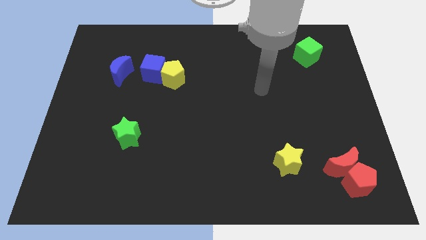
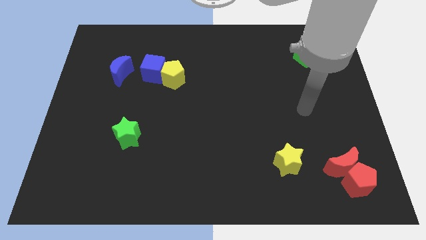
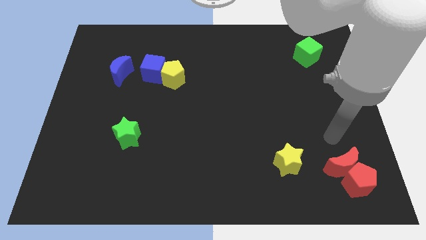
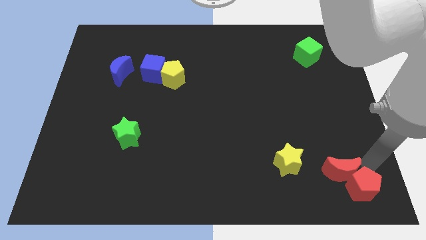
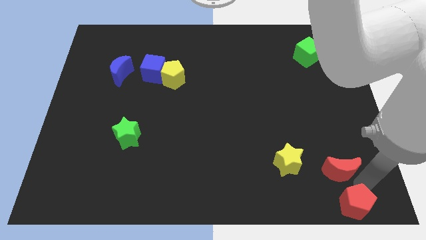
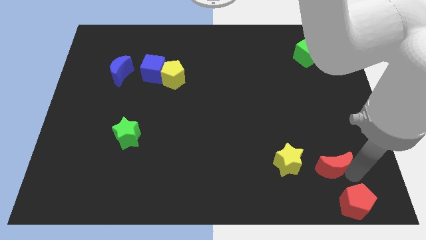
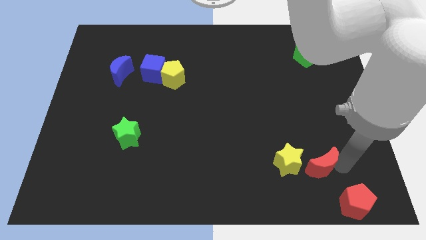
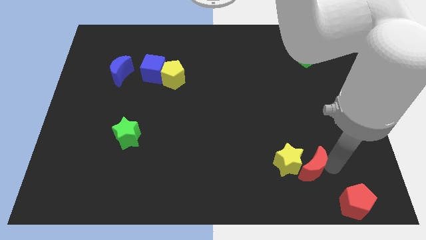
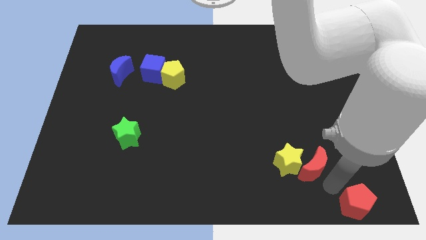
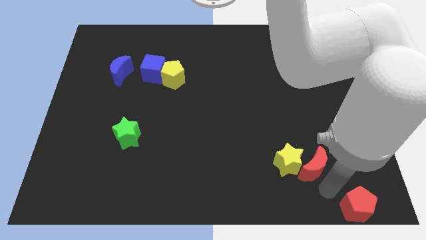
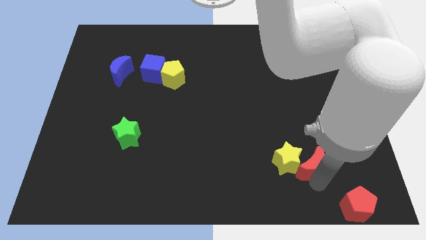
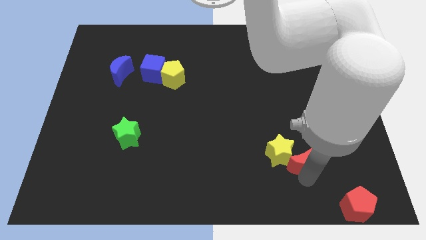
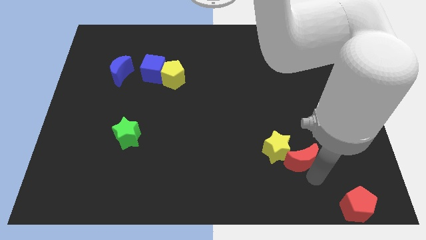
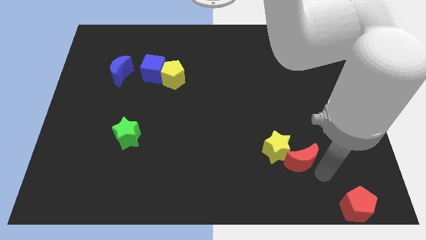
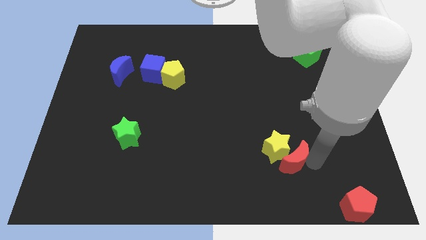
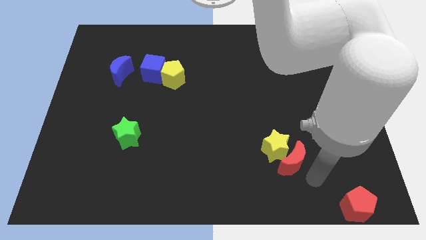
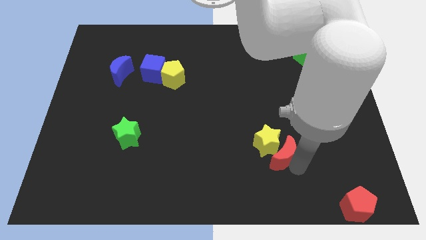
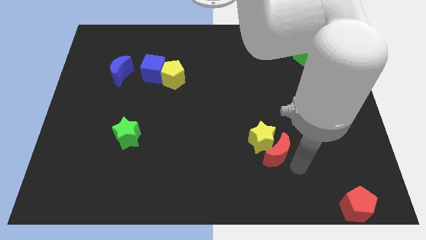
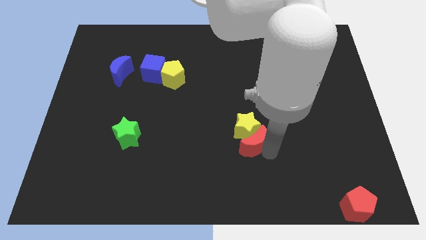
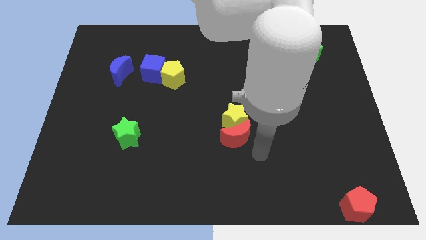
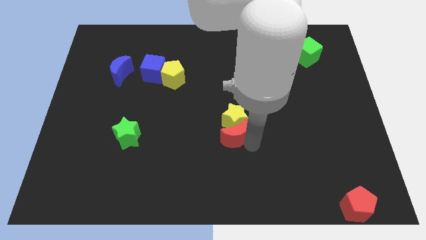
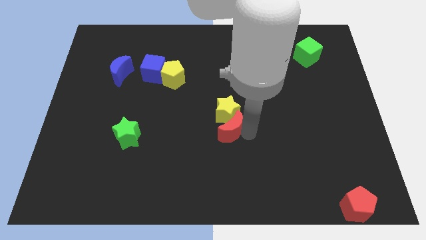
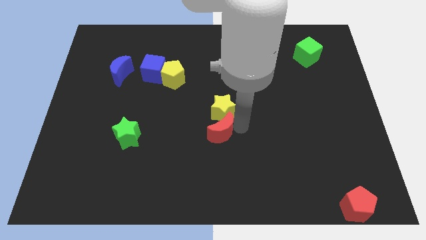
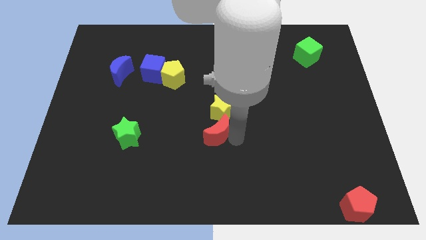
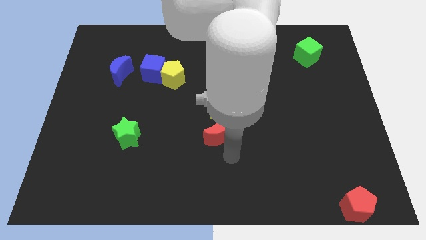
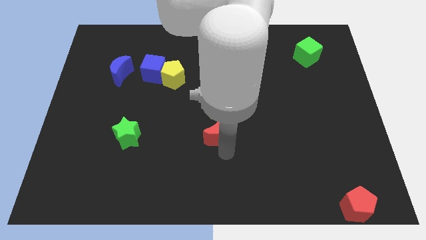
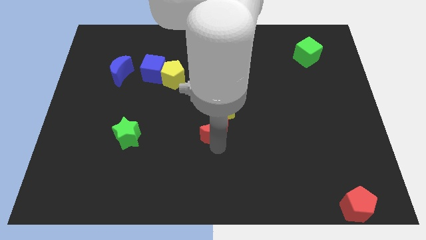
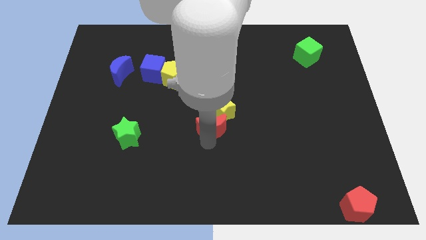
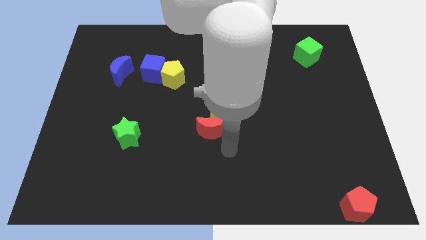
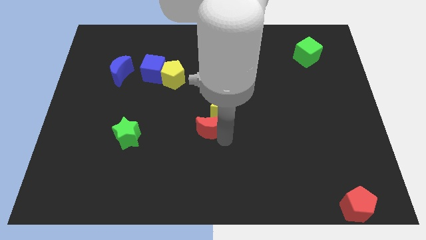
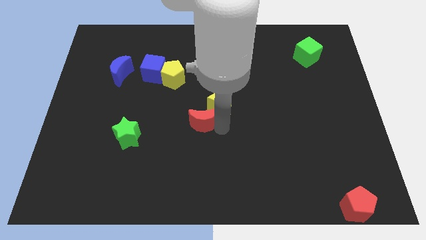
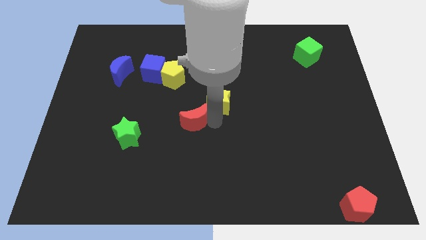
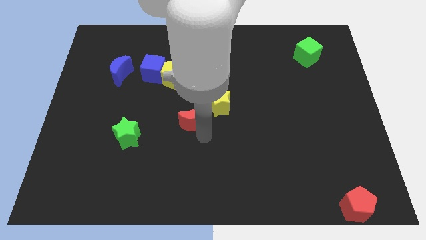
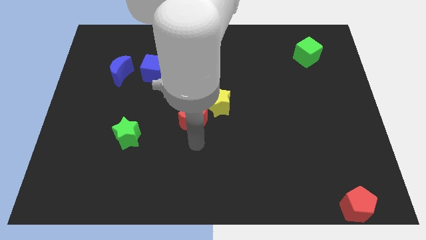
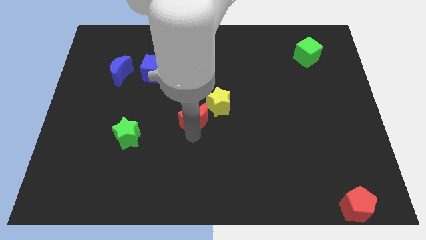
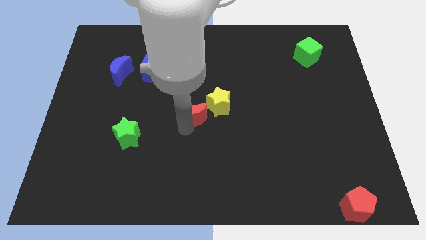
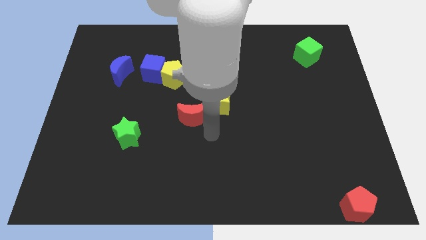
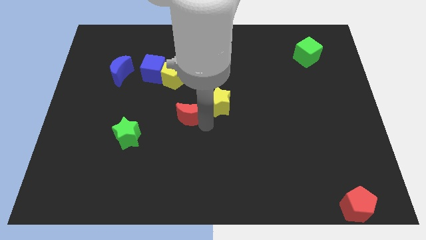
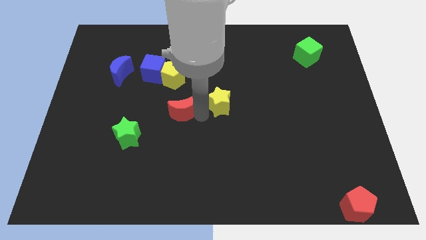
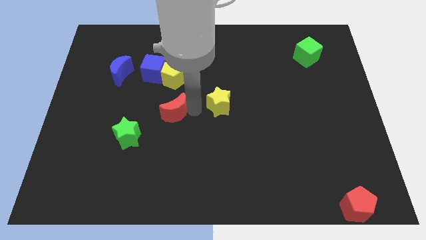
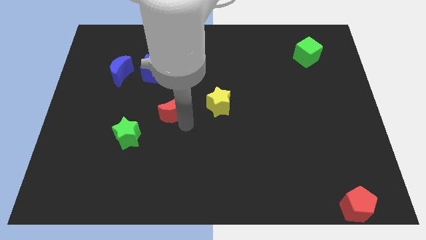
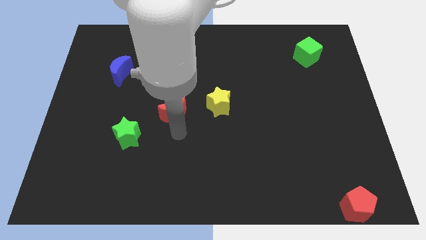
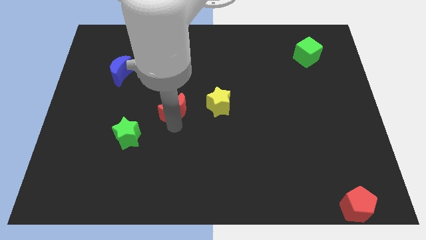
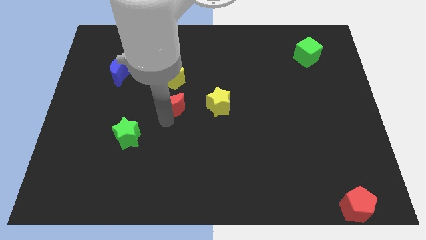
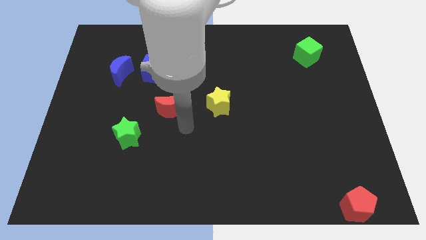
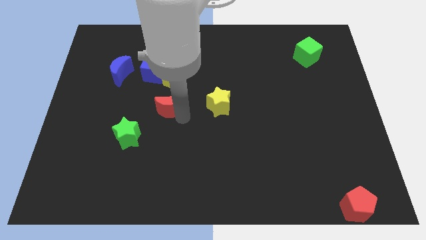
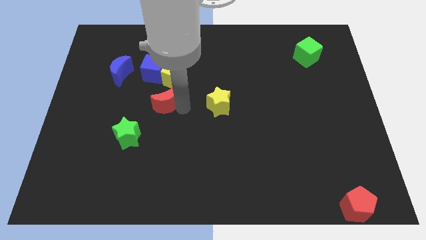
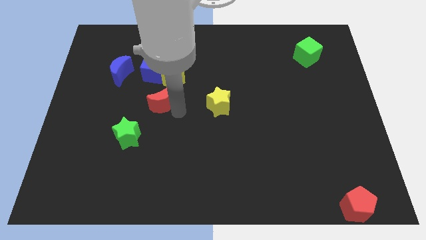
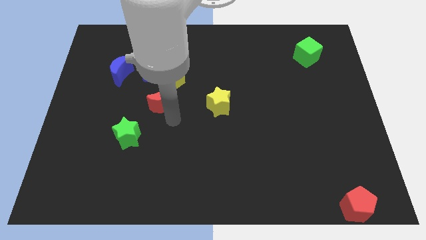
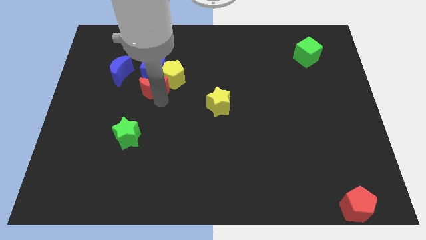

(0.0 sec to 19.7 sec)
move the red moon close to the blue cube

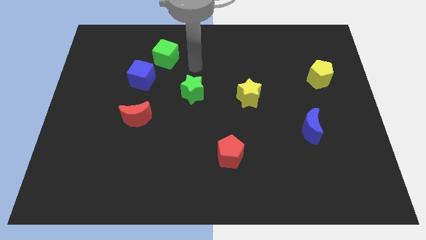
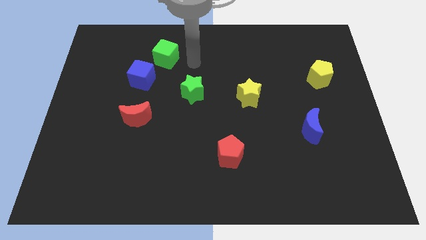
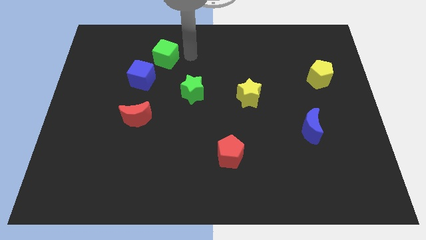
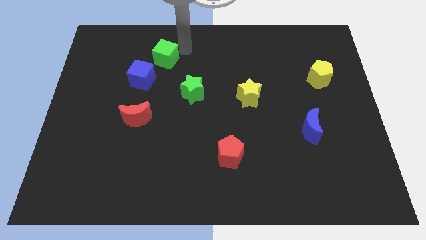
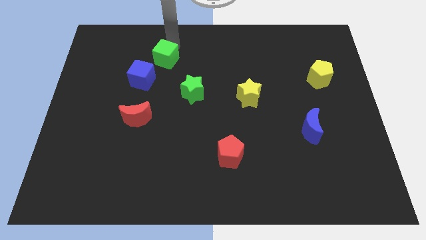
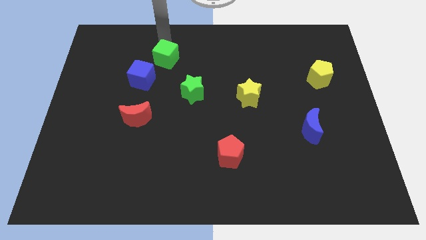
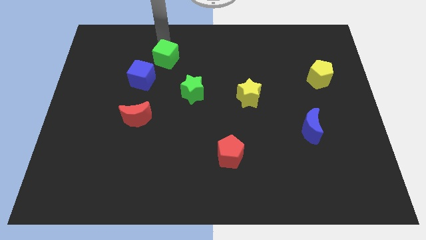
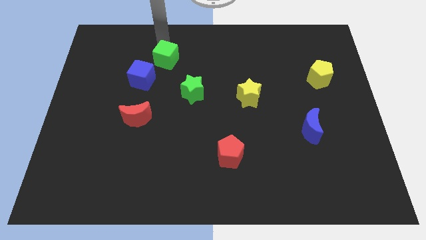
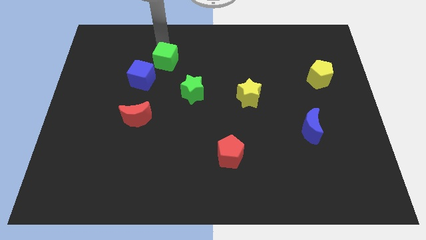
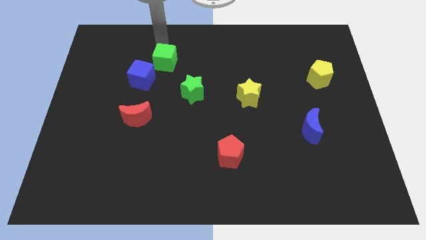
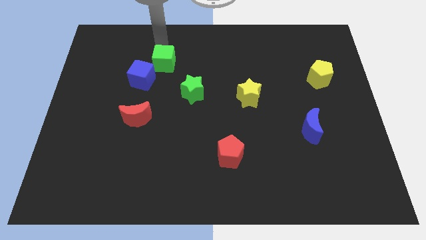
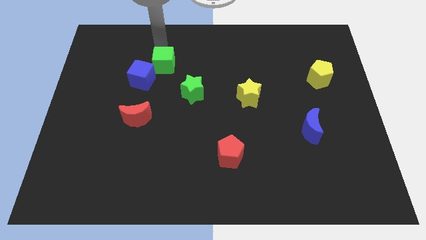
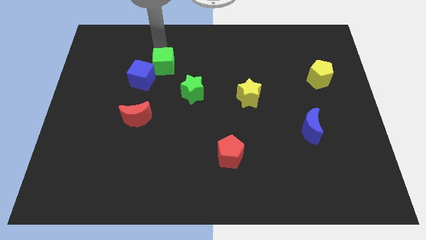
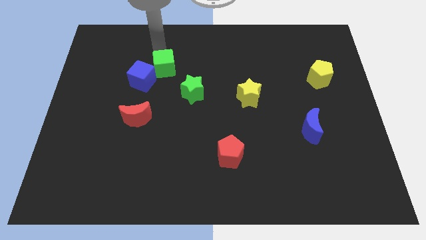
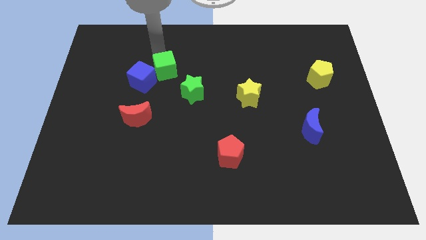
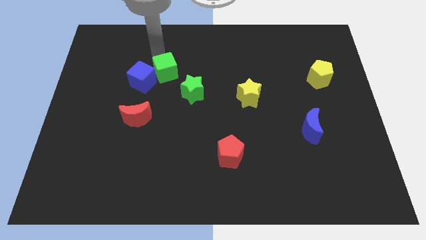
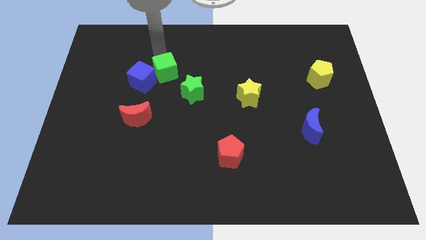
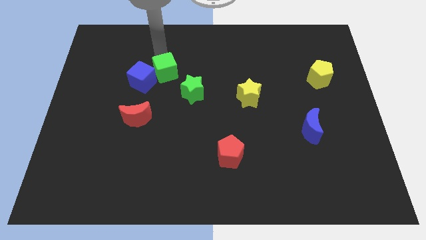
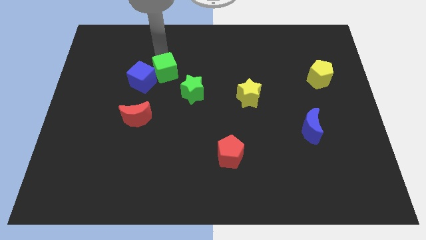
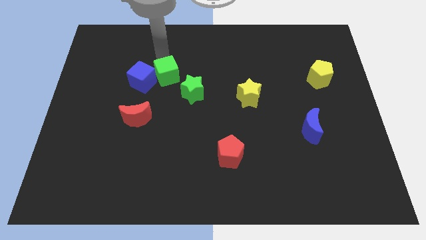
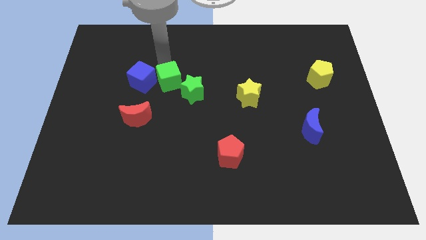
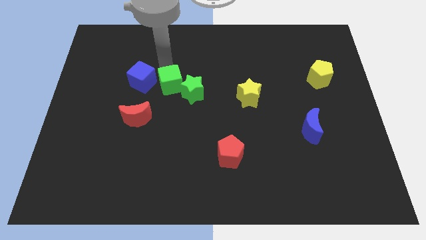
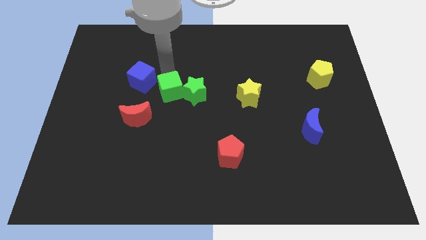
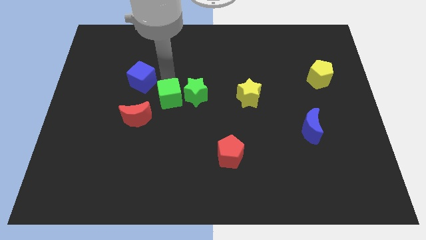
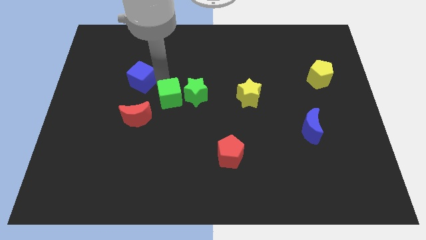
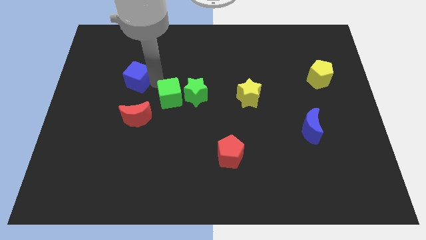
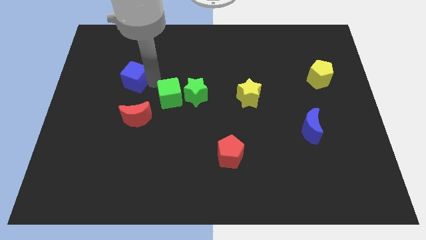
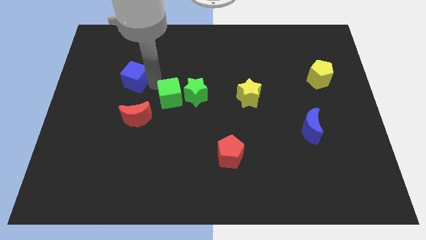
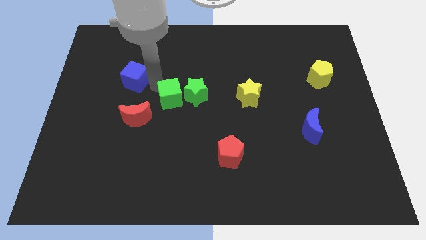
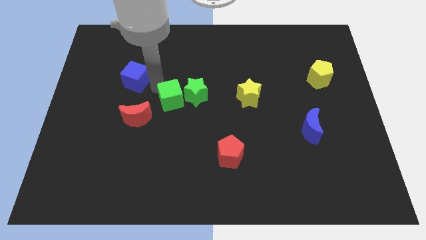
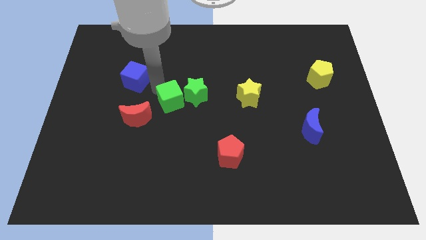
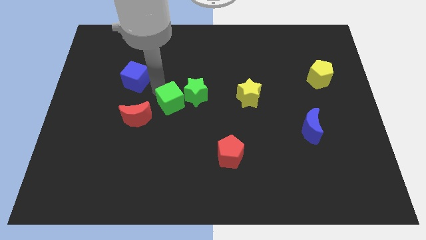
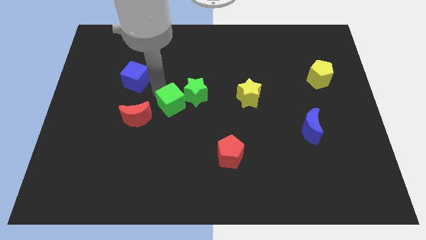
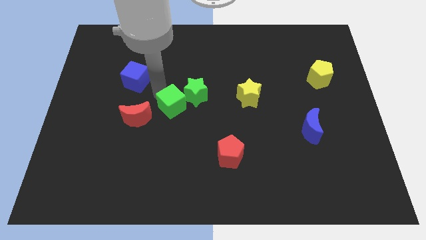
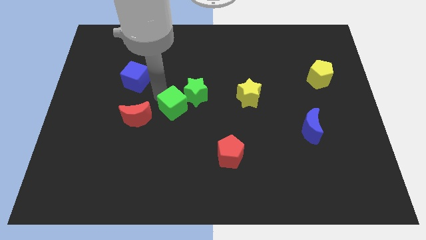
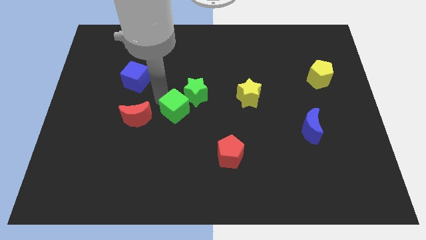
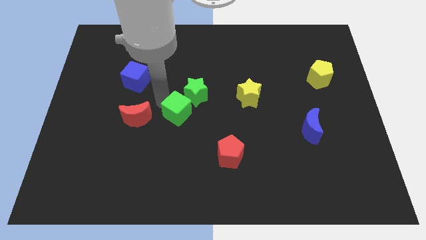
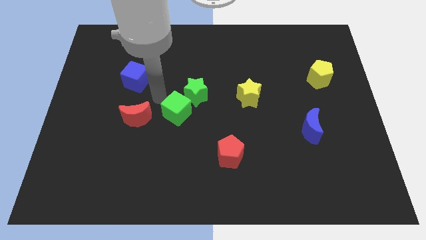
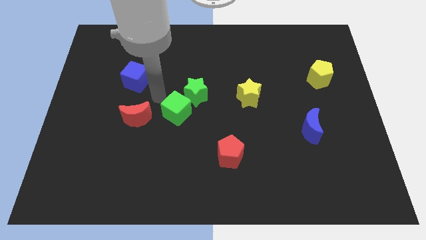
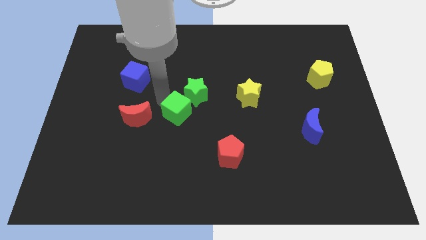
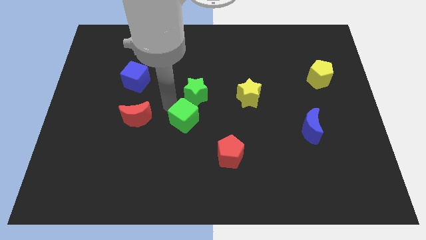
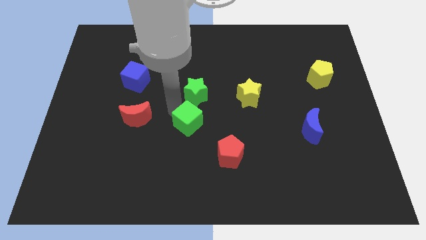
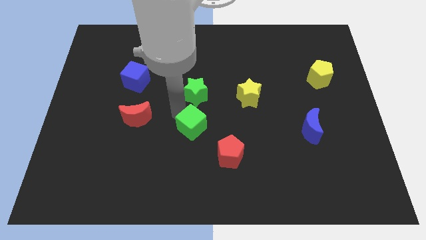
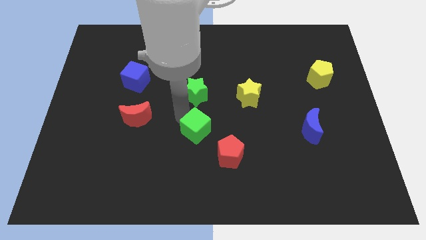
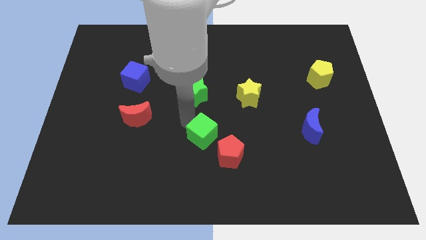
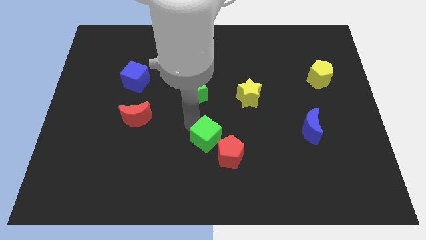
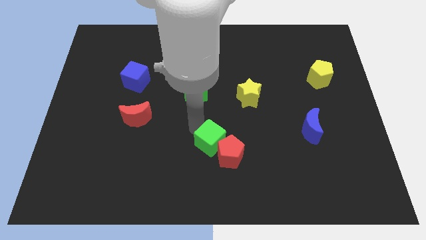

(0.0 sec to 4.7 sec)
push the green cube towards the red pentagon
